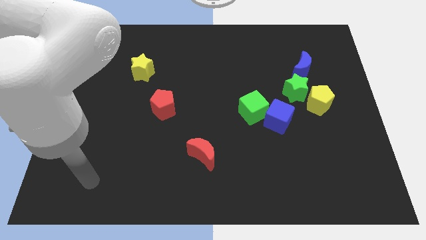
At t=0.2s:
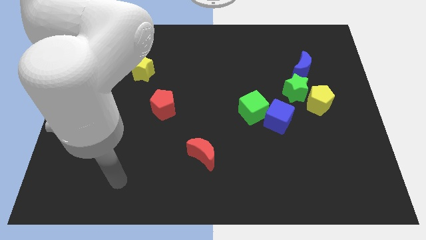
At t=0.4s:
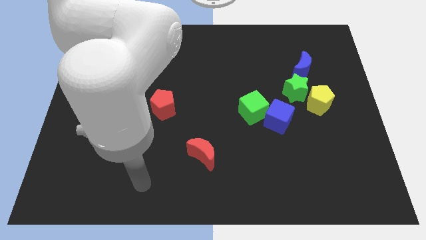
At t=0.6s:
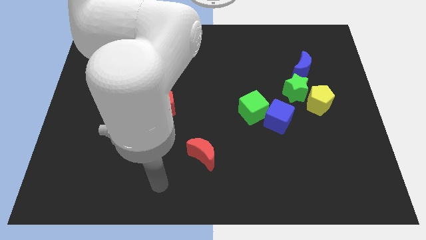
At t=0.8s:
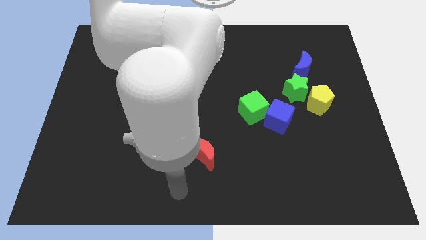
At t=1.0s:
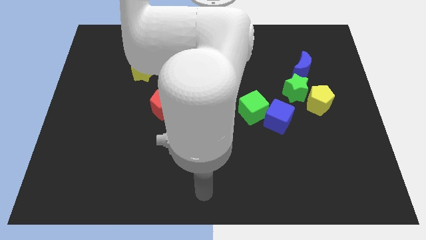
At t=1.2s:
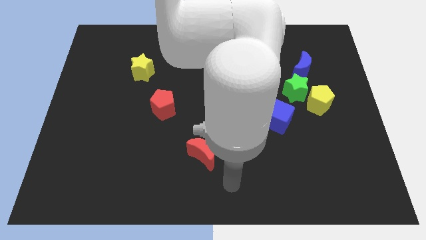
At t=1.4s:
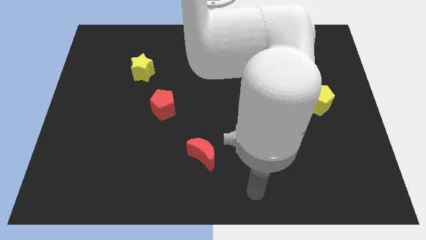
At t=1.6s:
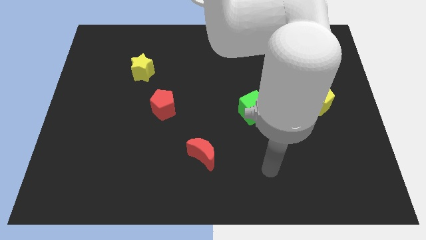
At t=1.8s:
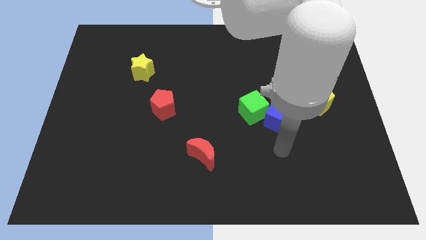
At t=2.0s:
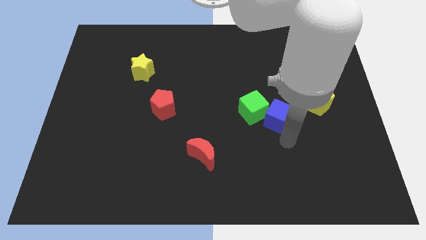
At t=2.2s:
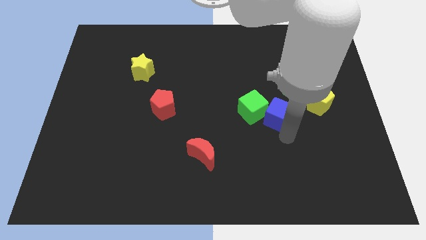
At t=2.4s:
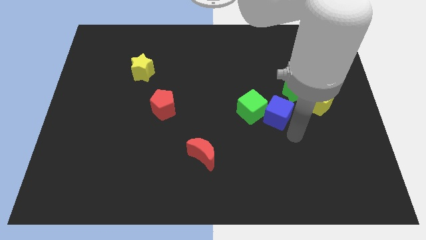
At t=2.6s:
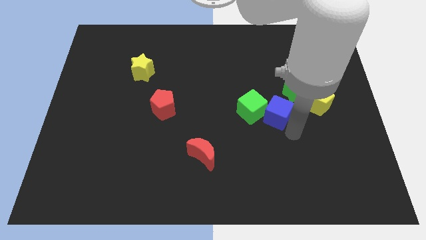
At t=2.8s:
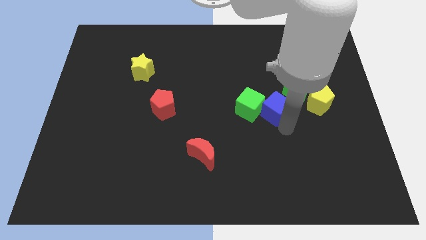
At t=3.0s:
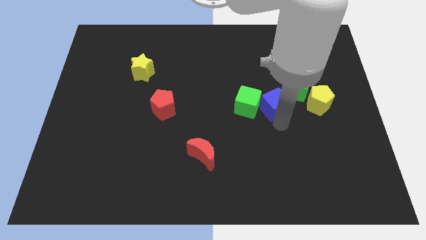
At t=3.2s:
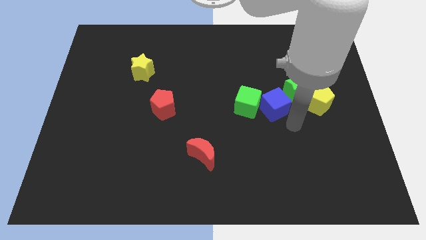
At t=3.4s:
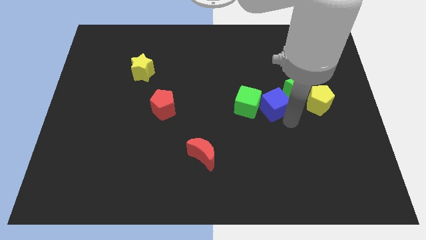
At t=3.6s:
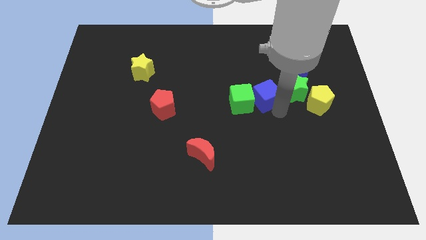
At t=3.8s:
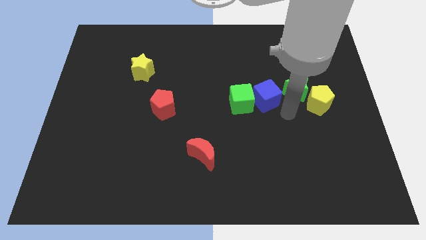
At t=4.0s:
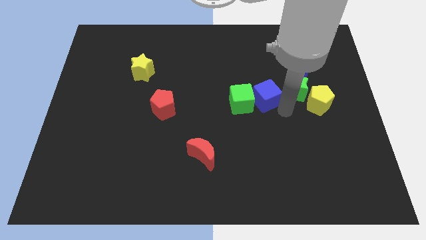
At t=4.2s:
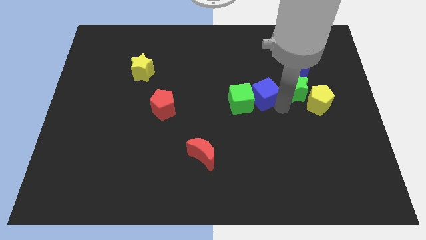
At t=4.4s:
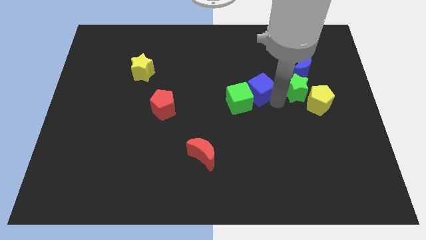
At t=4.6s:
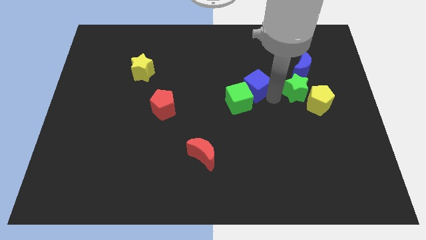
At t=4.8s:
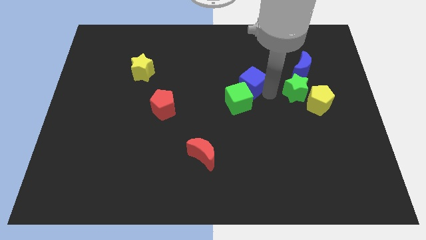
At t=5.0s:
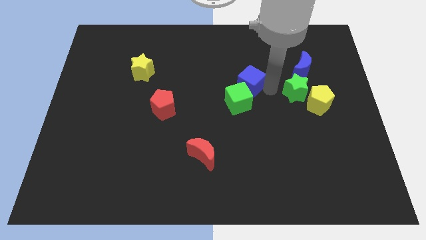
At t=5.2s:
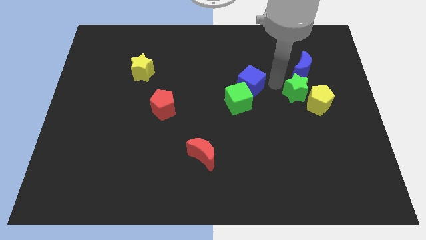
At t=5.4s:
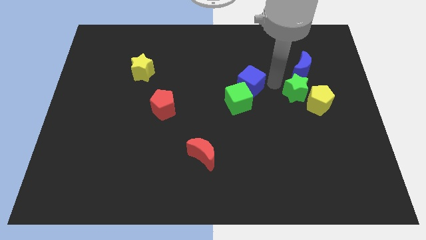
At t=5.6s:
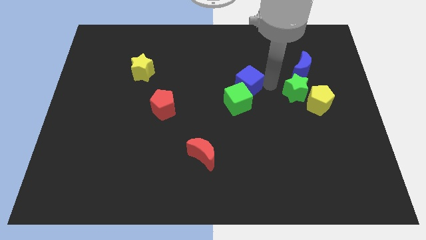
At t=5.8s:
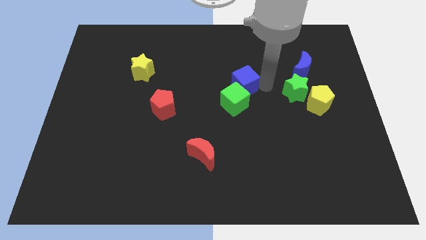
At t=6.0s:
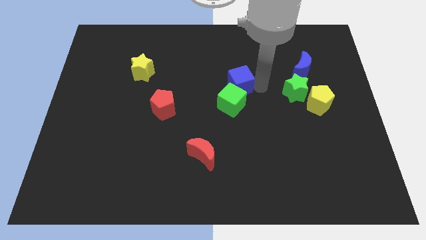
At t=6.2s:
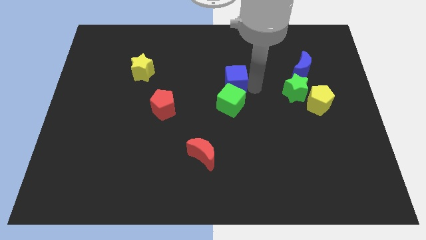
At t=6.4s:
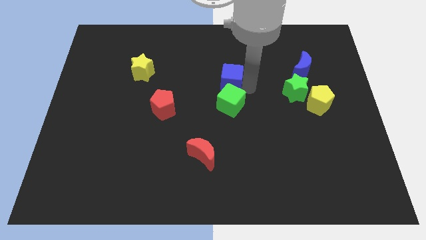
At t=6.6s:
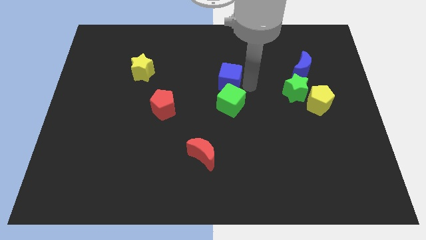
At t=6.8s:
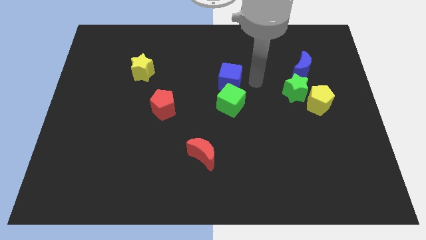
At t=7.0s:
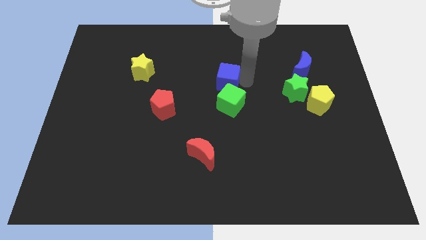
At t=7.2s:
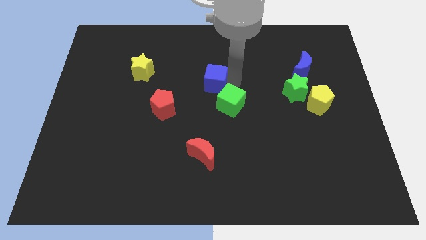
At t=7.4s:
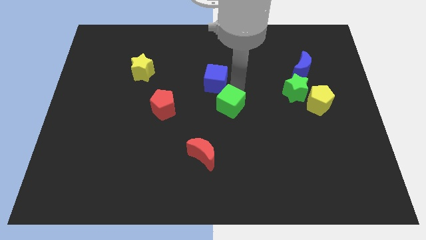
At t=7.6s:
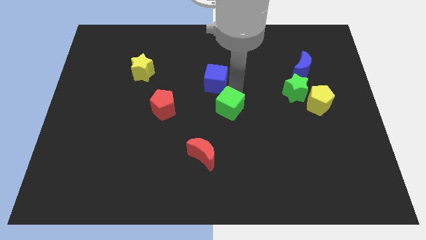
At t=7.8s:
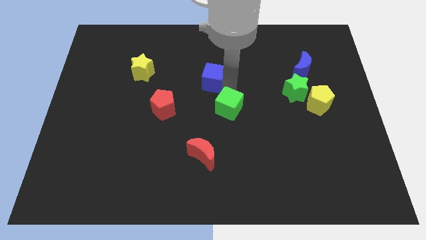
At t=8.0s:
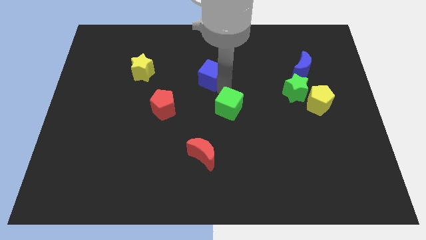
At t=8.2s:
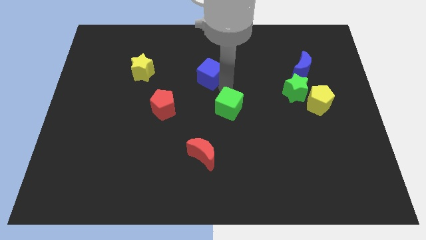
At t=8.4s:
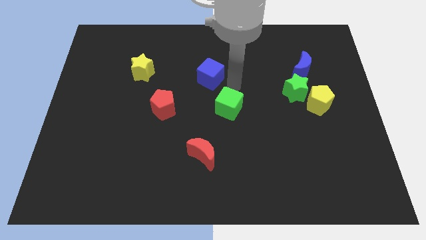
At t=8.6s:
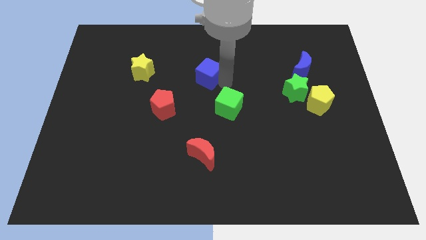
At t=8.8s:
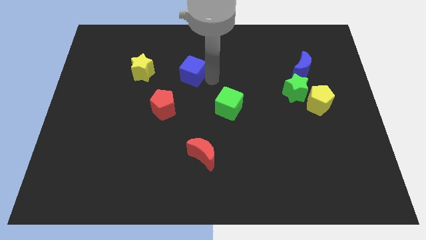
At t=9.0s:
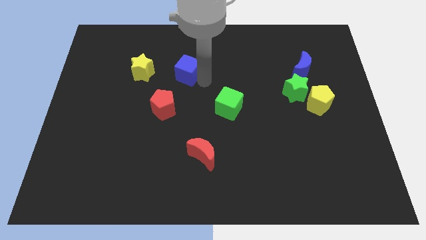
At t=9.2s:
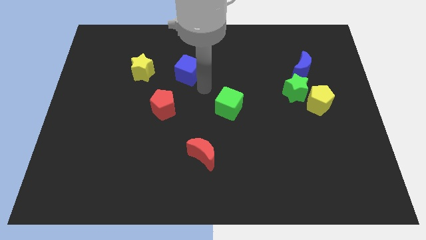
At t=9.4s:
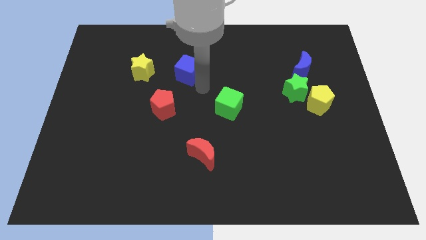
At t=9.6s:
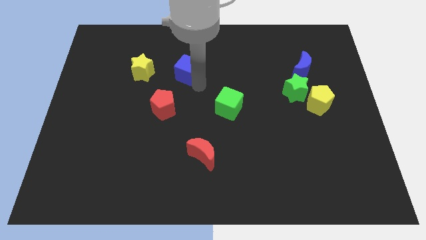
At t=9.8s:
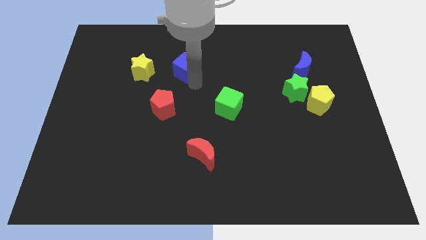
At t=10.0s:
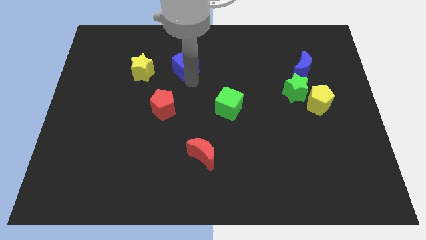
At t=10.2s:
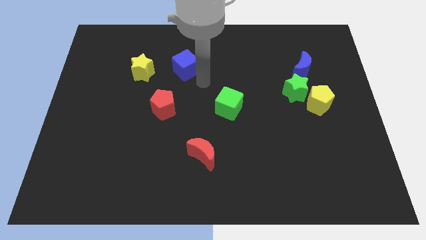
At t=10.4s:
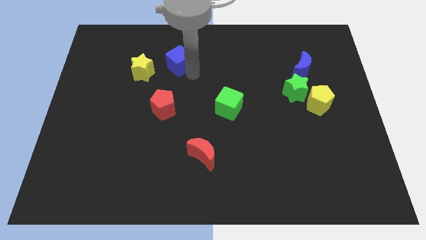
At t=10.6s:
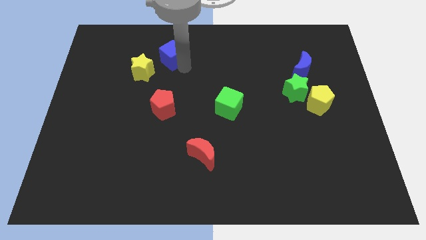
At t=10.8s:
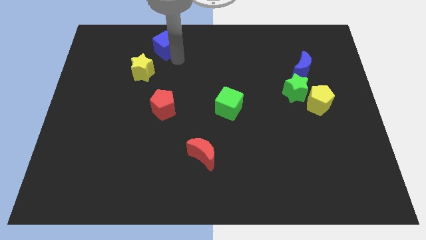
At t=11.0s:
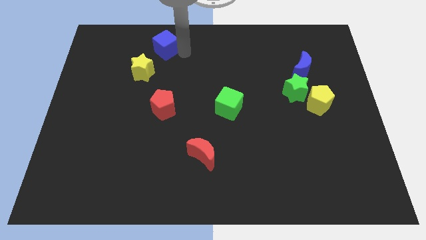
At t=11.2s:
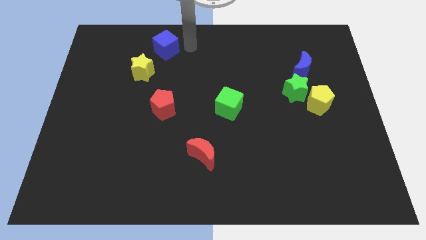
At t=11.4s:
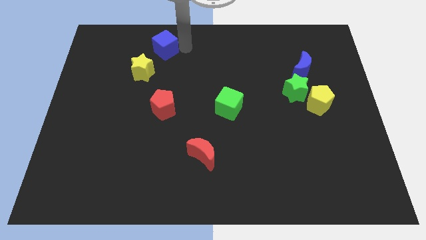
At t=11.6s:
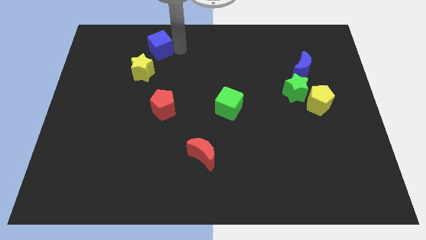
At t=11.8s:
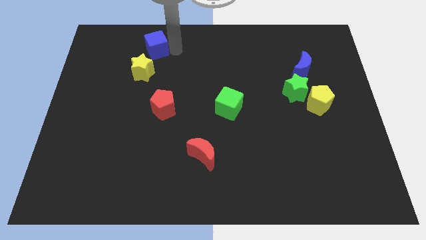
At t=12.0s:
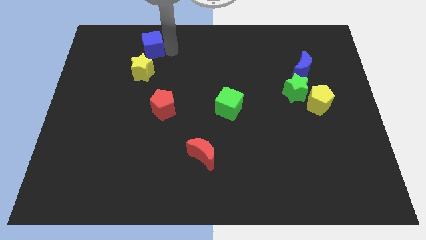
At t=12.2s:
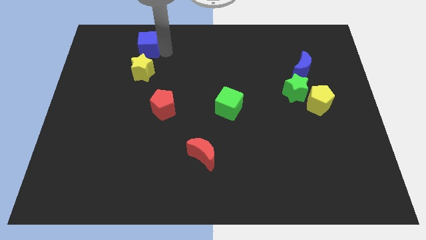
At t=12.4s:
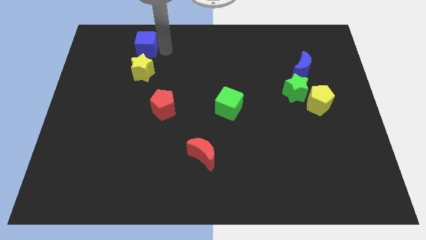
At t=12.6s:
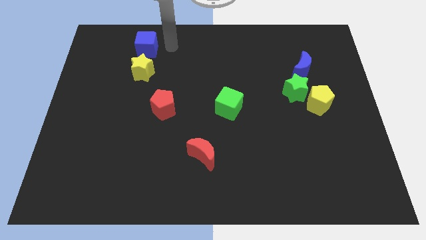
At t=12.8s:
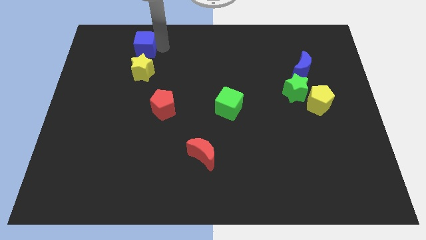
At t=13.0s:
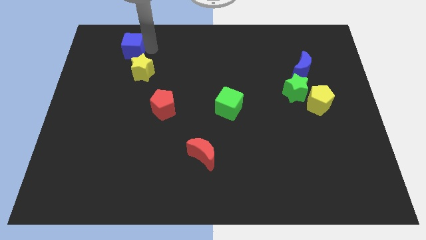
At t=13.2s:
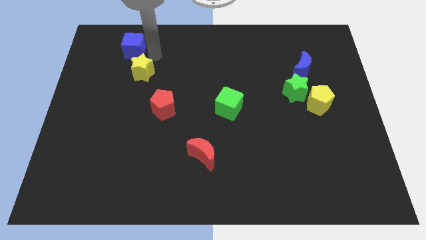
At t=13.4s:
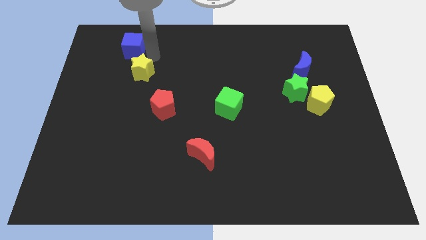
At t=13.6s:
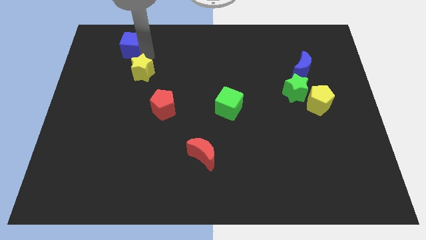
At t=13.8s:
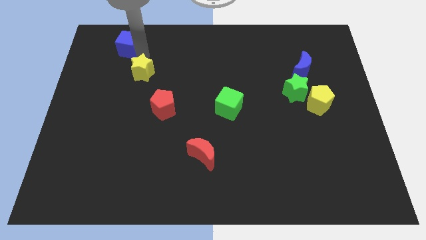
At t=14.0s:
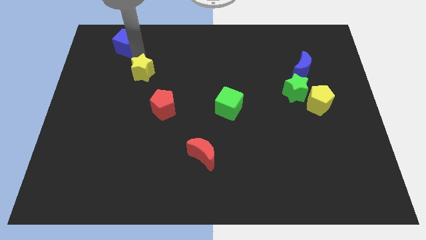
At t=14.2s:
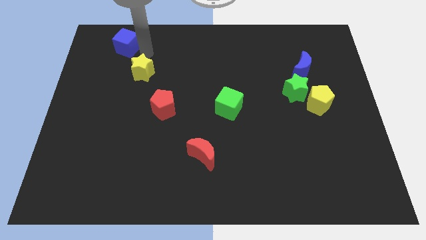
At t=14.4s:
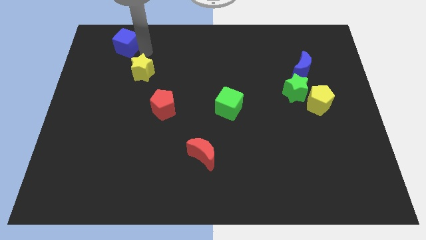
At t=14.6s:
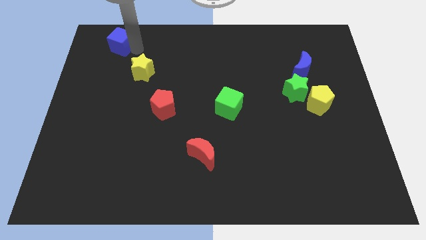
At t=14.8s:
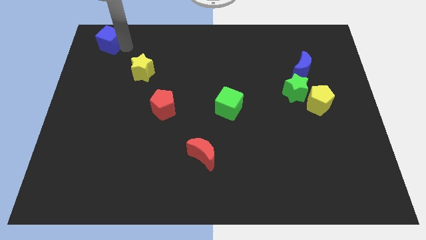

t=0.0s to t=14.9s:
slide the blue cube to the upper left corner
